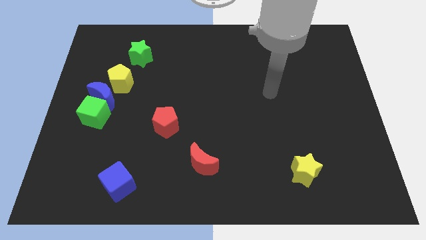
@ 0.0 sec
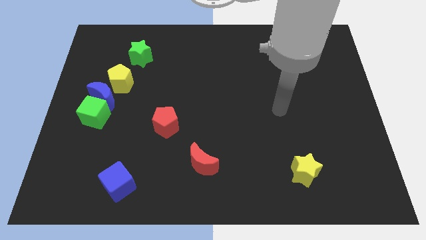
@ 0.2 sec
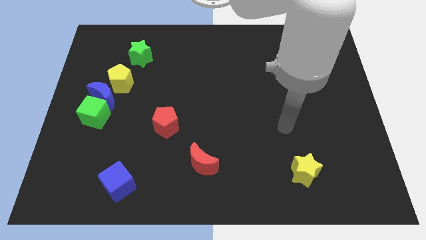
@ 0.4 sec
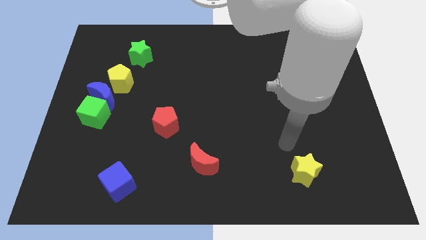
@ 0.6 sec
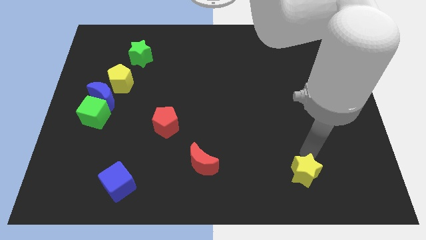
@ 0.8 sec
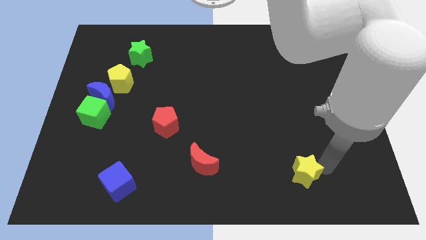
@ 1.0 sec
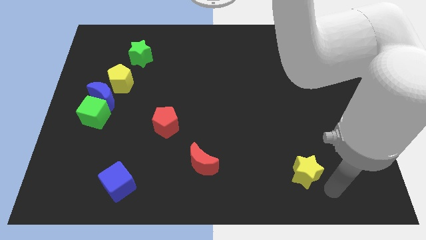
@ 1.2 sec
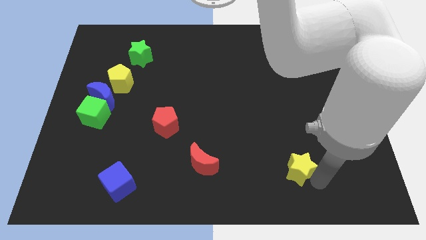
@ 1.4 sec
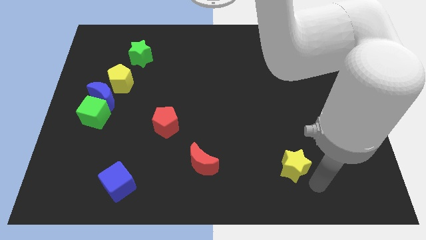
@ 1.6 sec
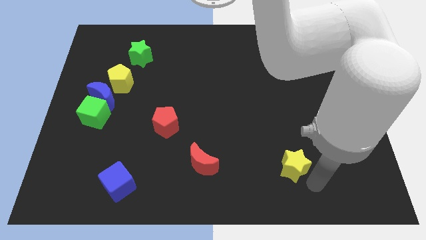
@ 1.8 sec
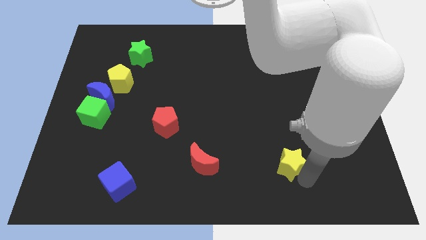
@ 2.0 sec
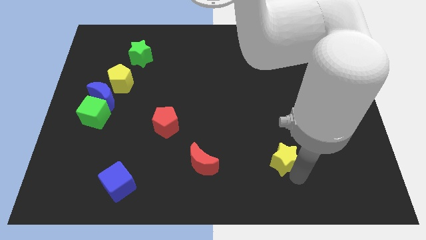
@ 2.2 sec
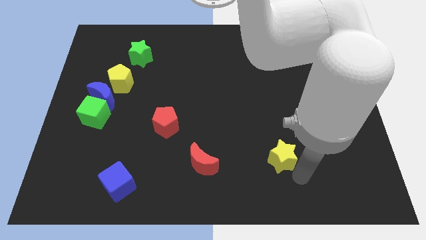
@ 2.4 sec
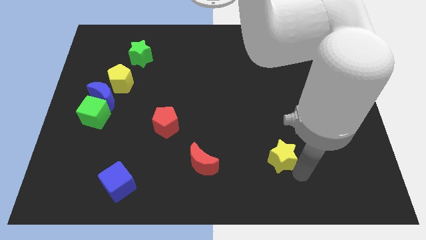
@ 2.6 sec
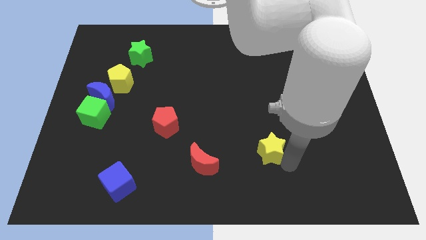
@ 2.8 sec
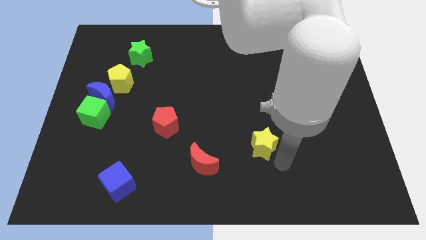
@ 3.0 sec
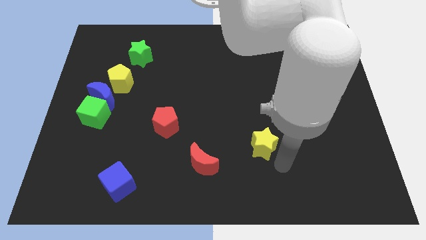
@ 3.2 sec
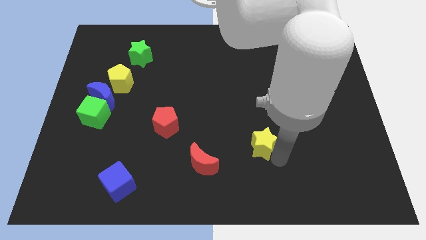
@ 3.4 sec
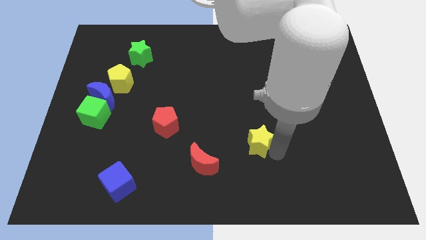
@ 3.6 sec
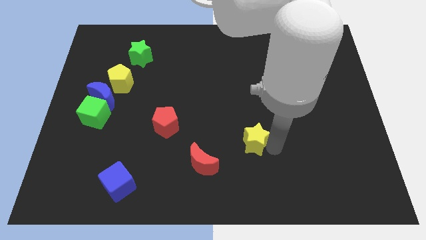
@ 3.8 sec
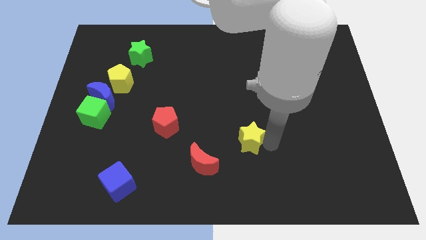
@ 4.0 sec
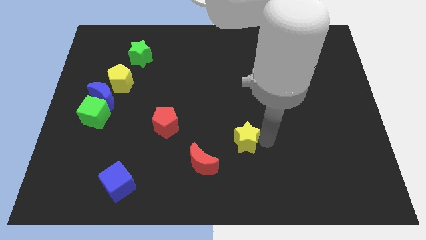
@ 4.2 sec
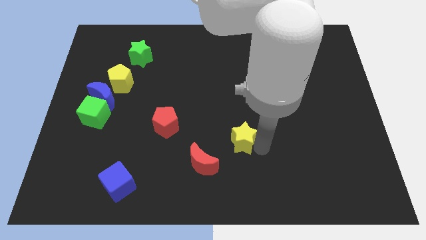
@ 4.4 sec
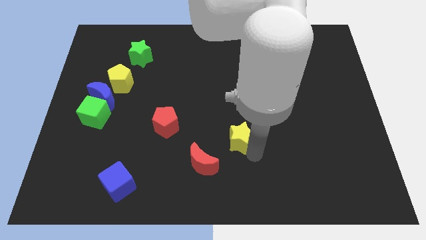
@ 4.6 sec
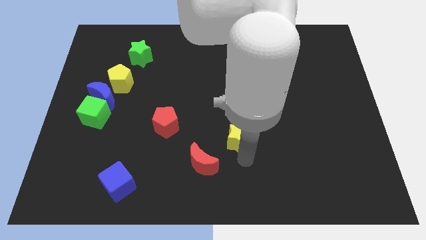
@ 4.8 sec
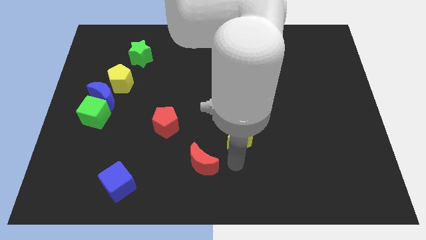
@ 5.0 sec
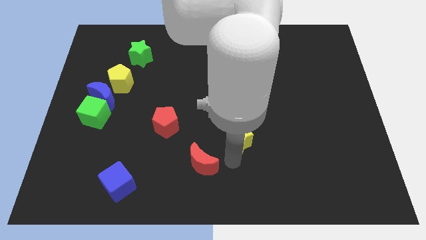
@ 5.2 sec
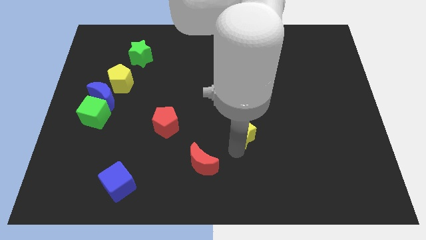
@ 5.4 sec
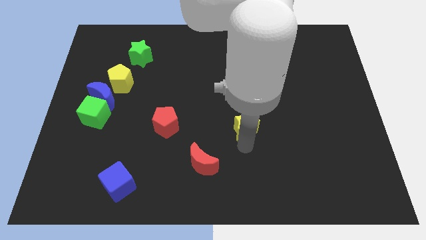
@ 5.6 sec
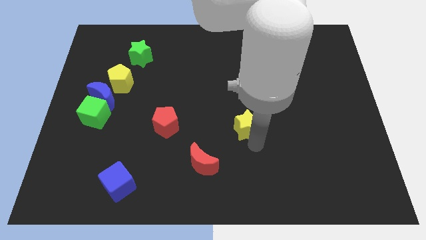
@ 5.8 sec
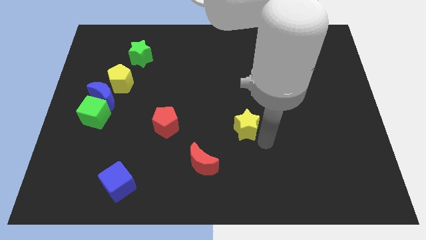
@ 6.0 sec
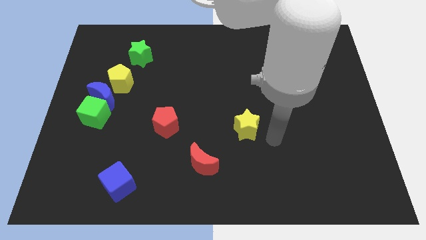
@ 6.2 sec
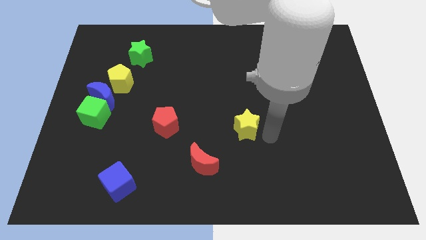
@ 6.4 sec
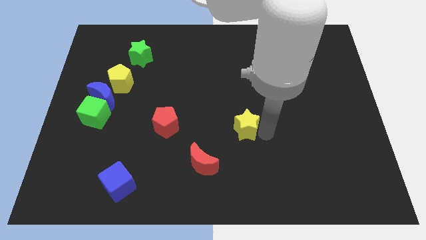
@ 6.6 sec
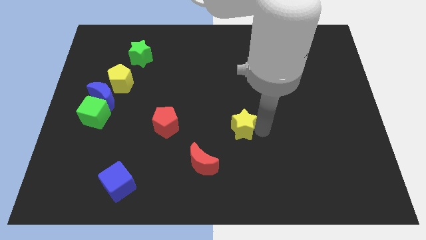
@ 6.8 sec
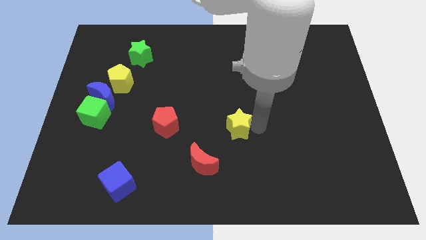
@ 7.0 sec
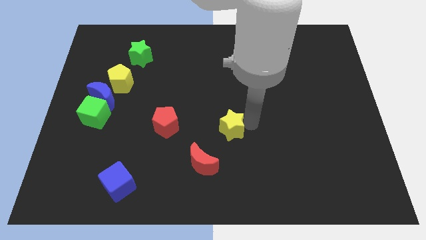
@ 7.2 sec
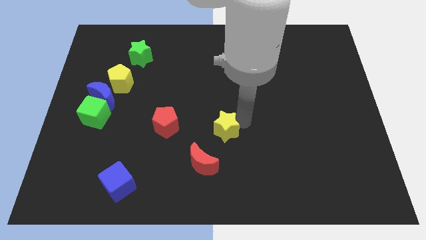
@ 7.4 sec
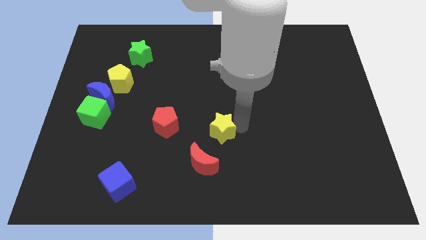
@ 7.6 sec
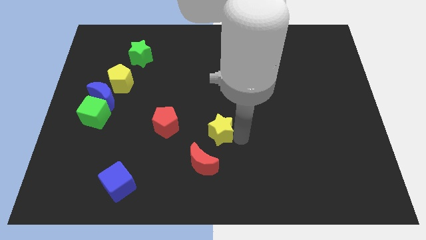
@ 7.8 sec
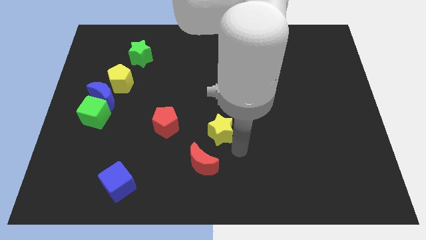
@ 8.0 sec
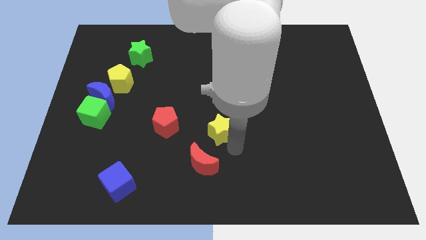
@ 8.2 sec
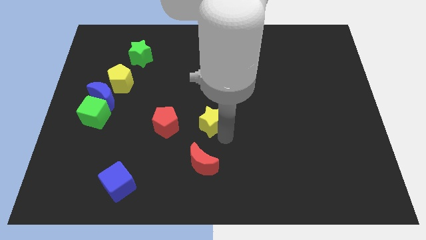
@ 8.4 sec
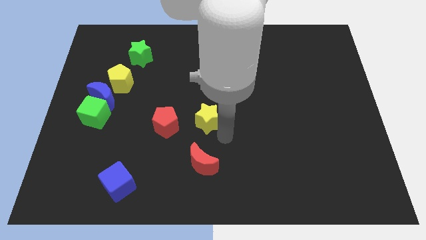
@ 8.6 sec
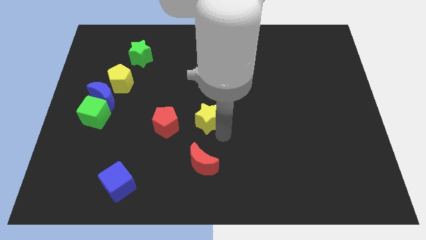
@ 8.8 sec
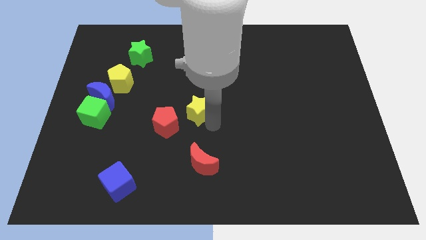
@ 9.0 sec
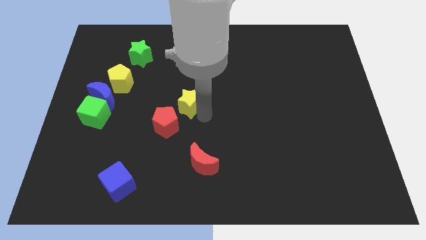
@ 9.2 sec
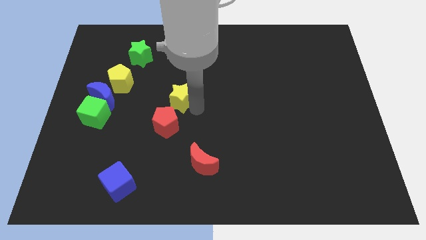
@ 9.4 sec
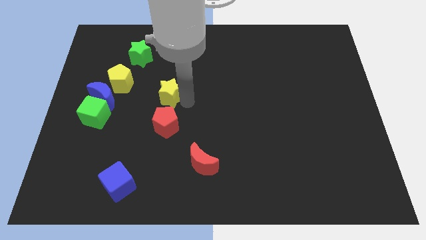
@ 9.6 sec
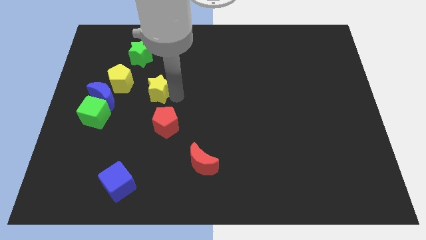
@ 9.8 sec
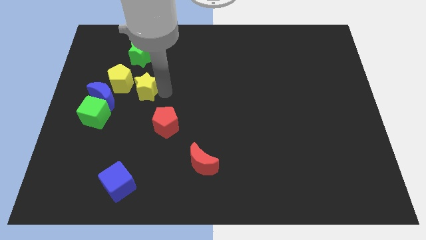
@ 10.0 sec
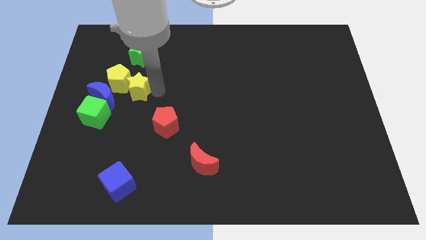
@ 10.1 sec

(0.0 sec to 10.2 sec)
push the yellow star towards the yellow pentagon

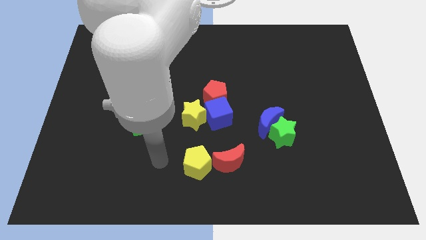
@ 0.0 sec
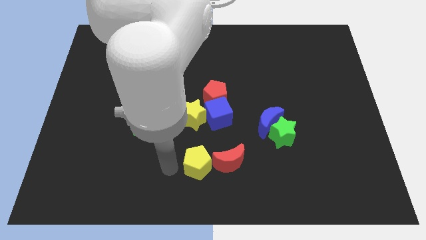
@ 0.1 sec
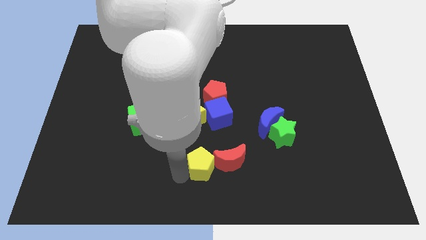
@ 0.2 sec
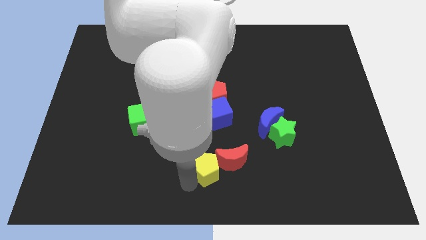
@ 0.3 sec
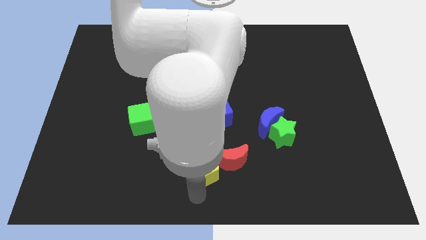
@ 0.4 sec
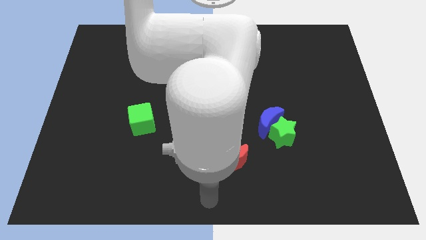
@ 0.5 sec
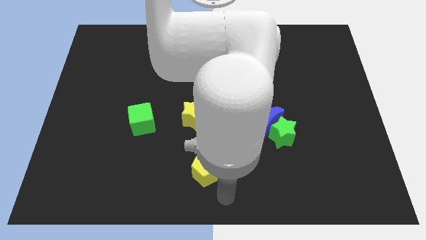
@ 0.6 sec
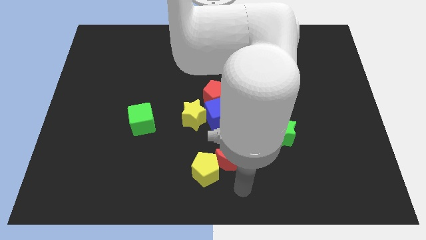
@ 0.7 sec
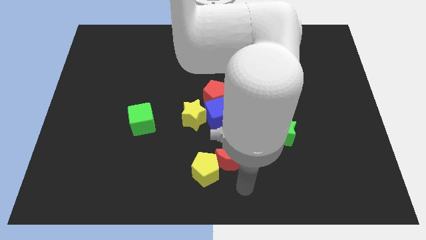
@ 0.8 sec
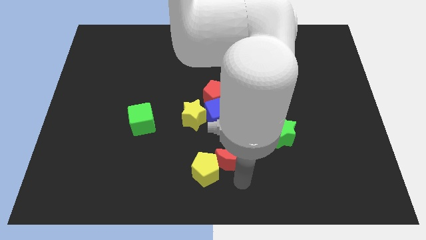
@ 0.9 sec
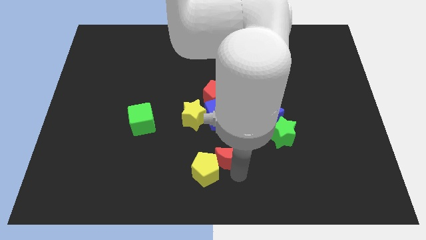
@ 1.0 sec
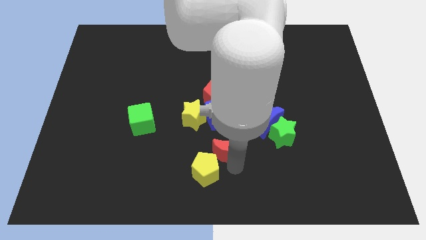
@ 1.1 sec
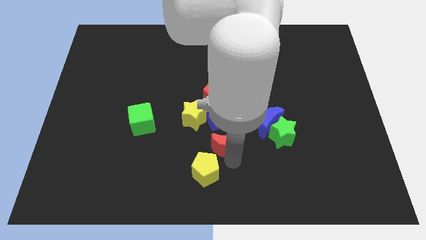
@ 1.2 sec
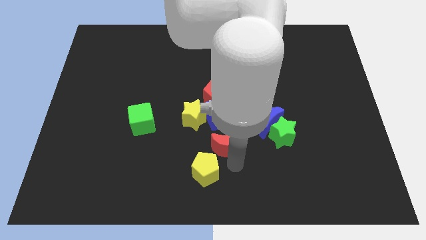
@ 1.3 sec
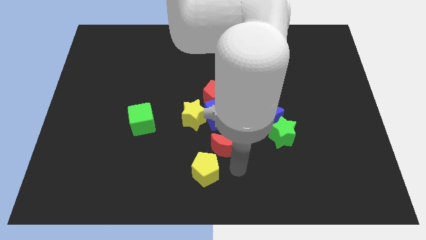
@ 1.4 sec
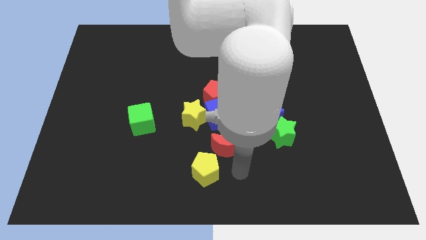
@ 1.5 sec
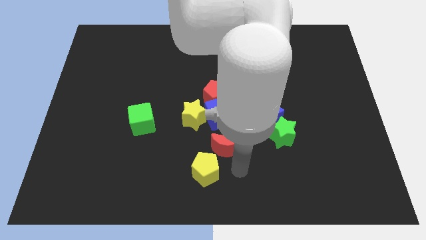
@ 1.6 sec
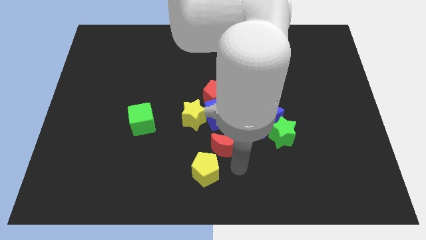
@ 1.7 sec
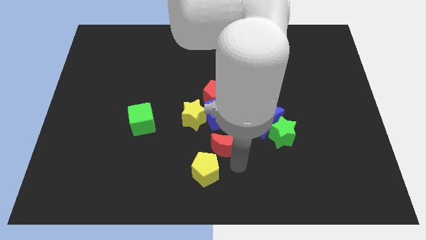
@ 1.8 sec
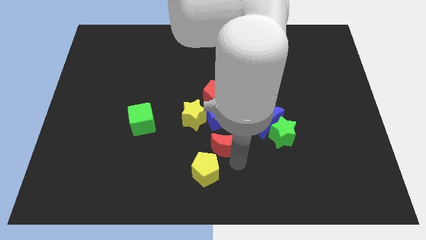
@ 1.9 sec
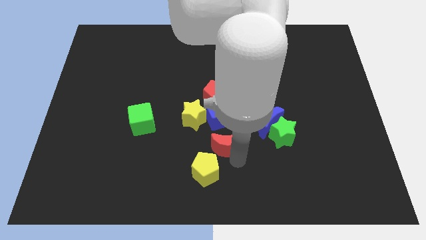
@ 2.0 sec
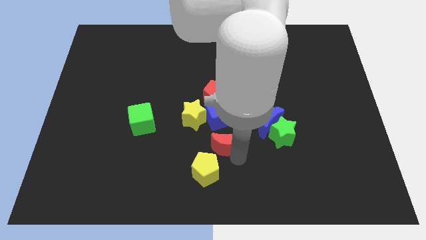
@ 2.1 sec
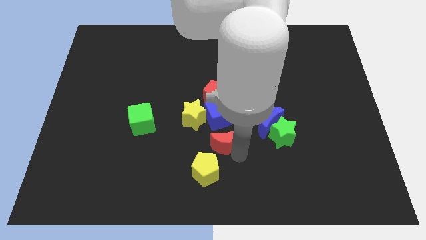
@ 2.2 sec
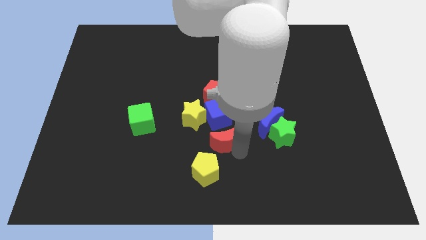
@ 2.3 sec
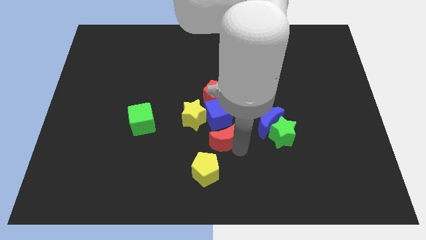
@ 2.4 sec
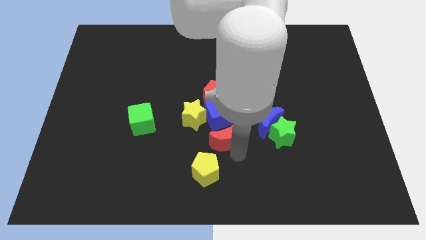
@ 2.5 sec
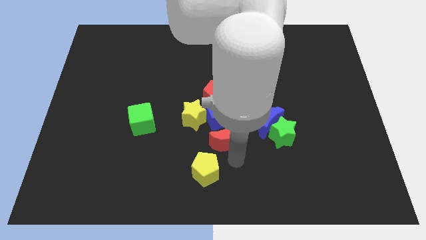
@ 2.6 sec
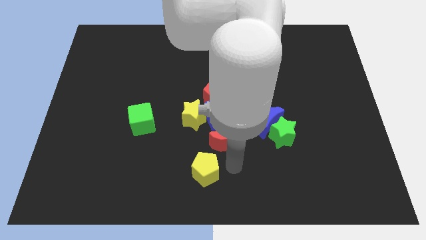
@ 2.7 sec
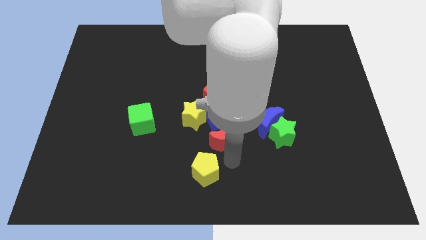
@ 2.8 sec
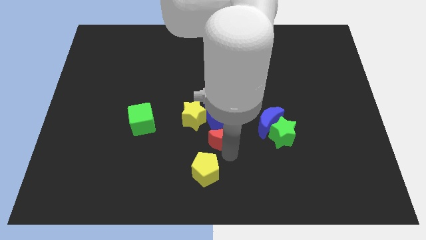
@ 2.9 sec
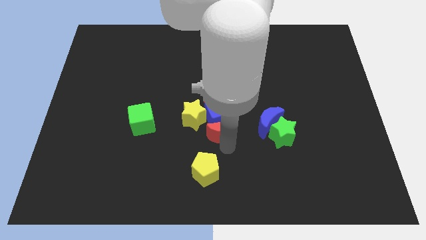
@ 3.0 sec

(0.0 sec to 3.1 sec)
push the red moon next to the blue cube
